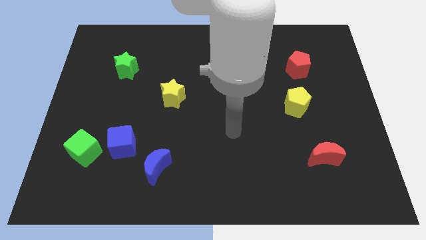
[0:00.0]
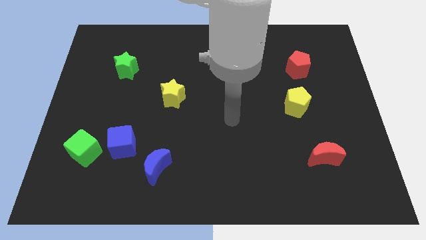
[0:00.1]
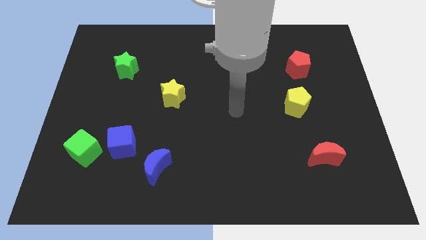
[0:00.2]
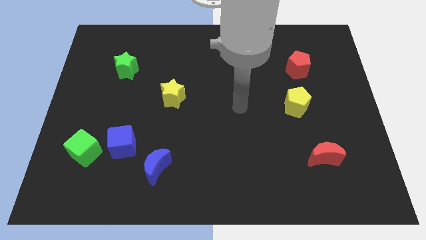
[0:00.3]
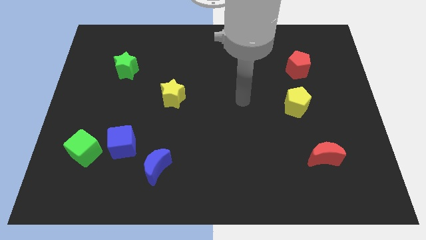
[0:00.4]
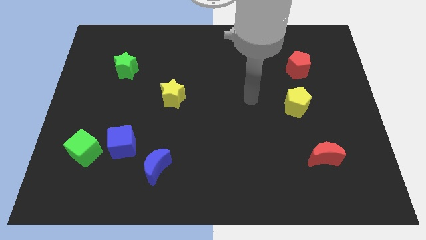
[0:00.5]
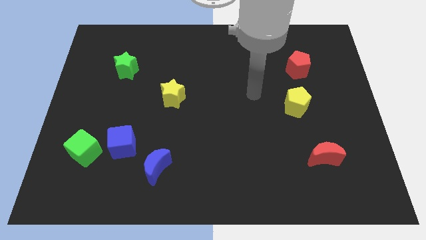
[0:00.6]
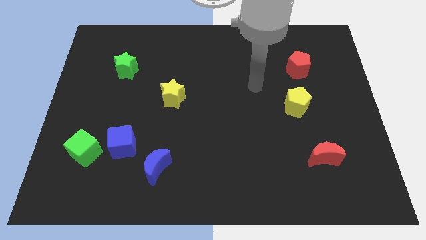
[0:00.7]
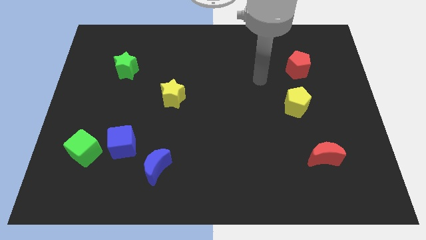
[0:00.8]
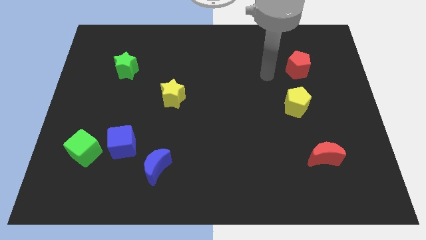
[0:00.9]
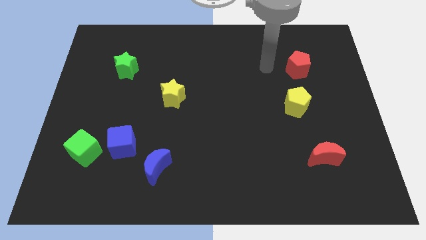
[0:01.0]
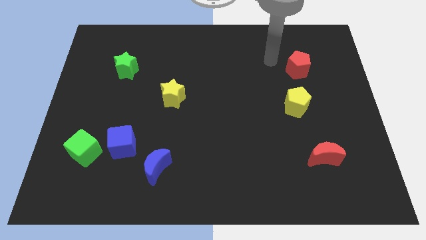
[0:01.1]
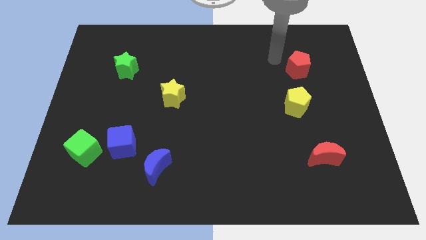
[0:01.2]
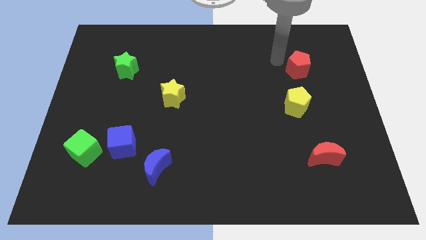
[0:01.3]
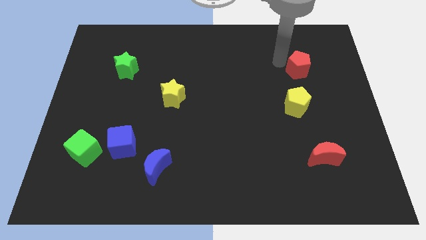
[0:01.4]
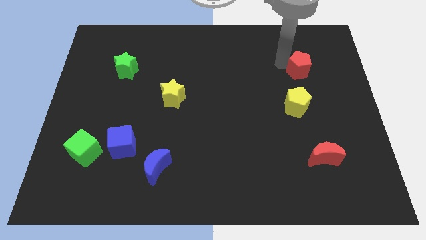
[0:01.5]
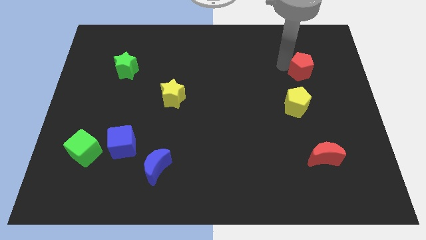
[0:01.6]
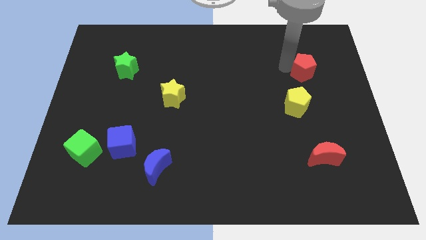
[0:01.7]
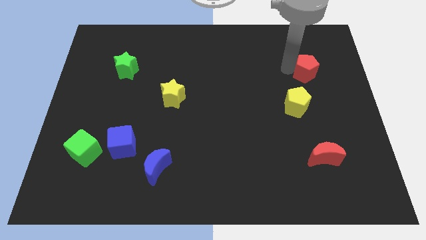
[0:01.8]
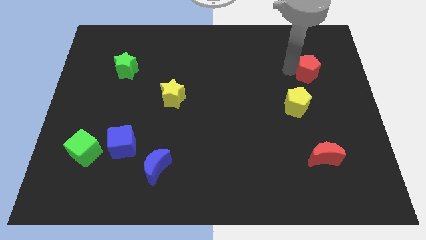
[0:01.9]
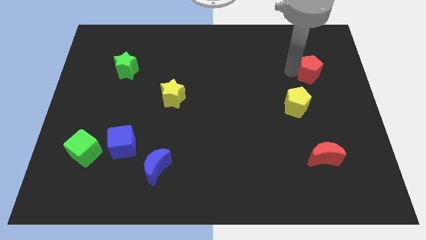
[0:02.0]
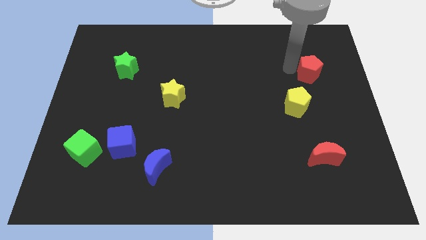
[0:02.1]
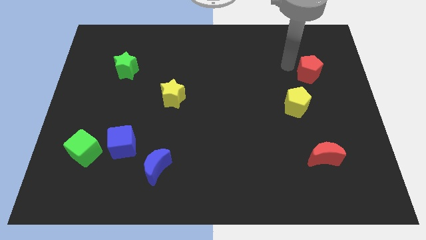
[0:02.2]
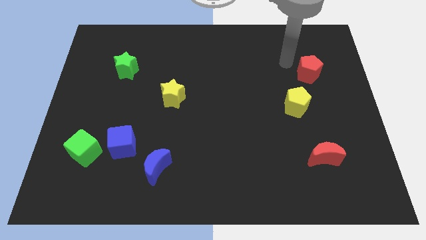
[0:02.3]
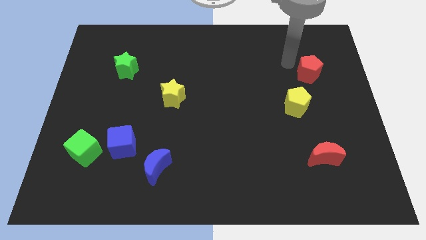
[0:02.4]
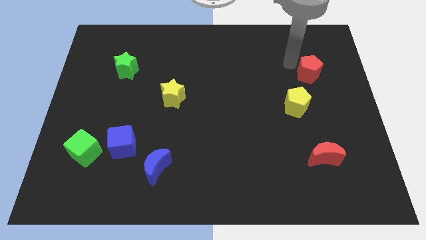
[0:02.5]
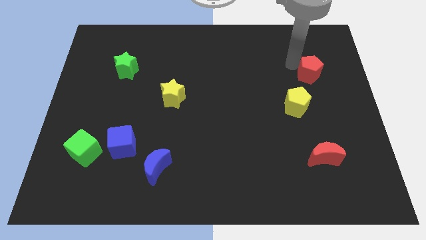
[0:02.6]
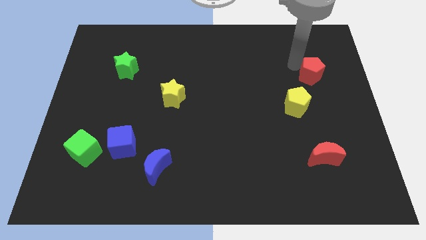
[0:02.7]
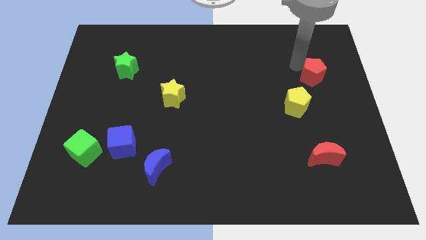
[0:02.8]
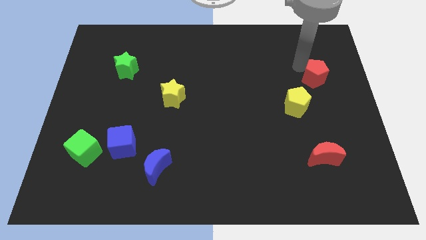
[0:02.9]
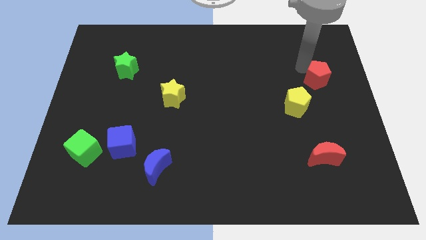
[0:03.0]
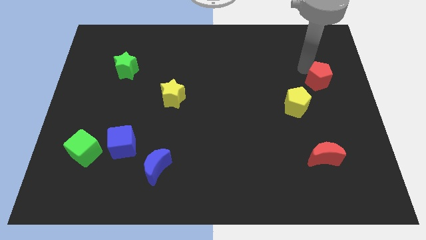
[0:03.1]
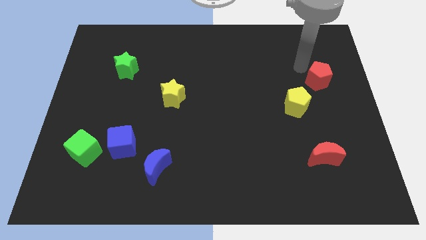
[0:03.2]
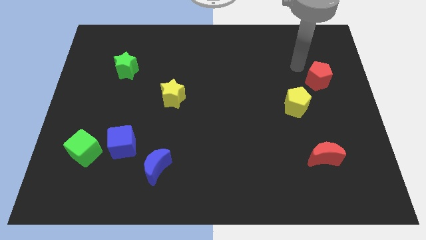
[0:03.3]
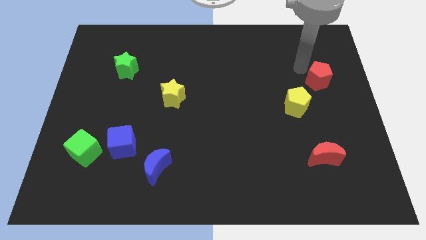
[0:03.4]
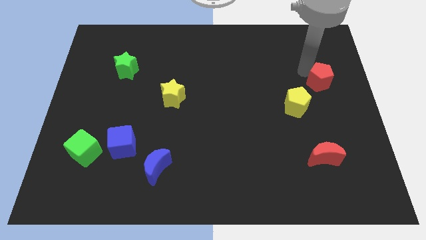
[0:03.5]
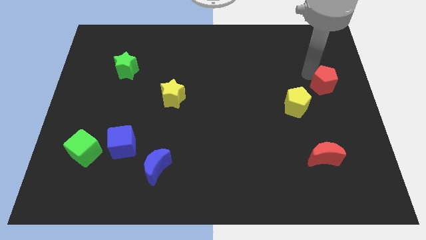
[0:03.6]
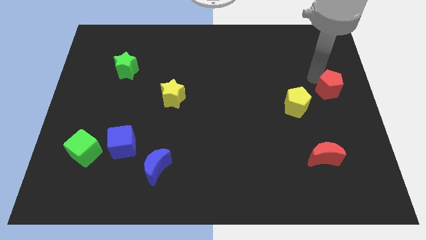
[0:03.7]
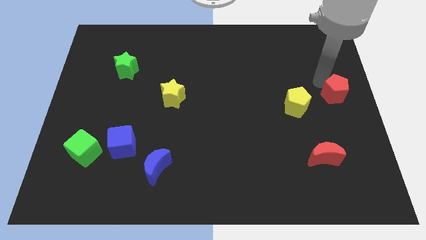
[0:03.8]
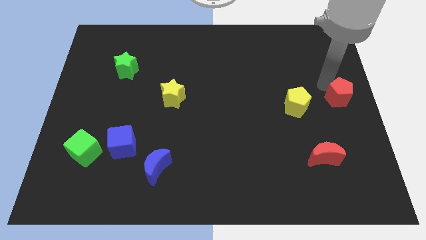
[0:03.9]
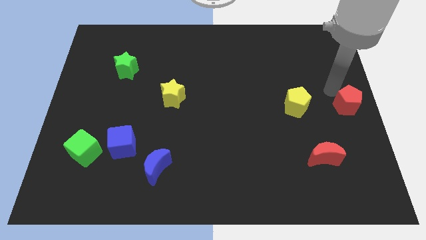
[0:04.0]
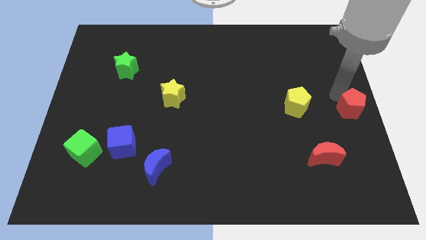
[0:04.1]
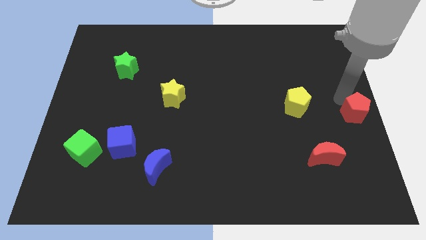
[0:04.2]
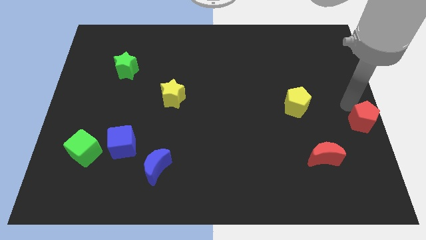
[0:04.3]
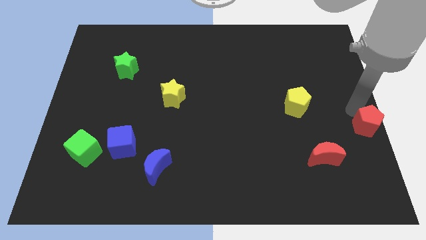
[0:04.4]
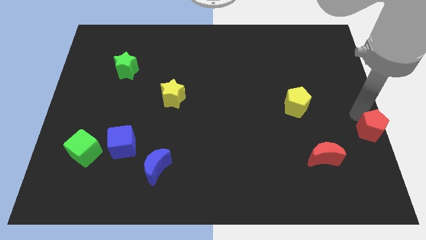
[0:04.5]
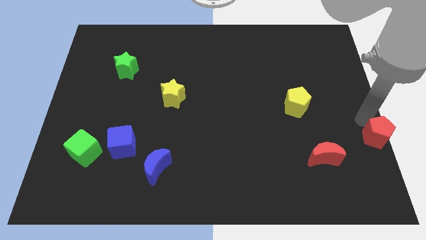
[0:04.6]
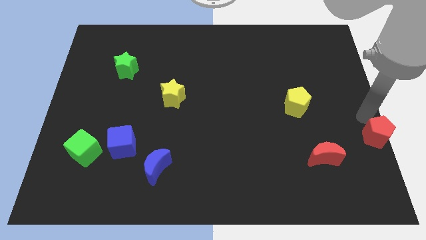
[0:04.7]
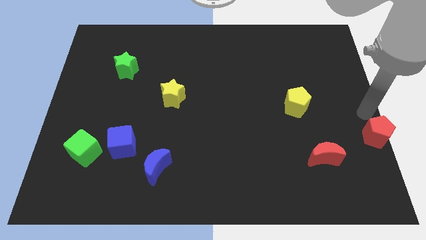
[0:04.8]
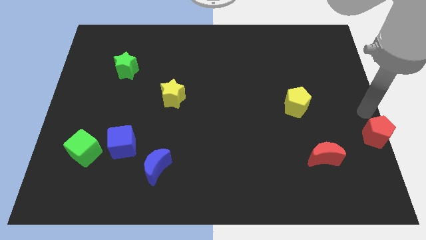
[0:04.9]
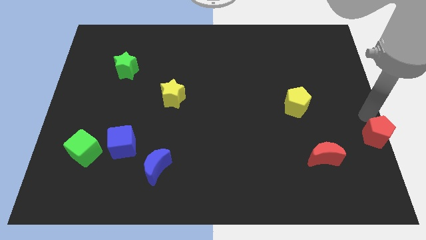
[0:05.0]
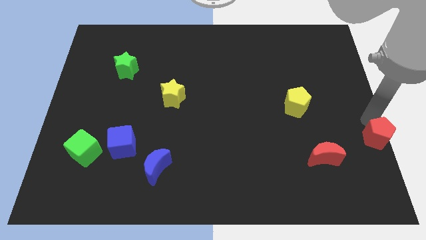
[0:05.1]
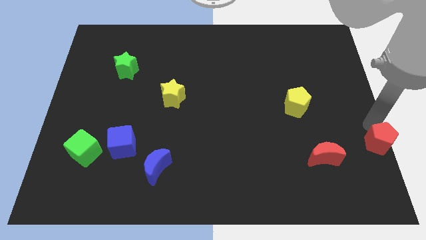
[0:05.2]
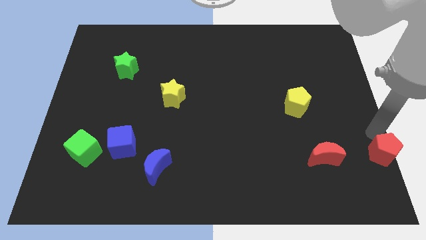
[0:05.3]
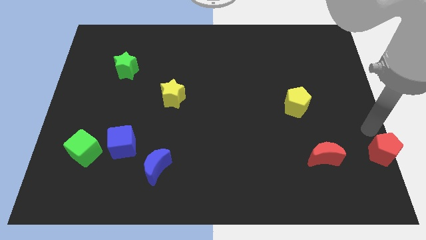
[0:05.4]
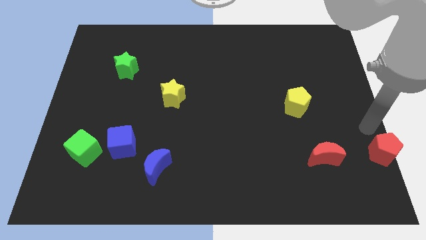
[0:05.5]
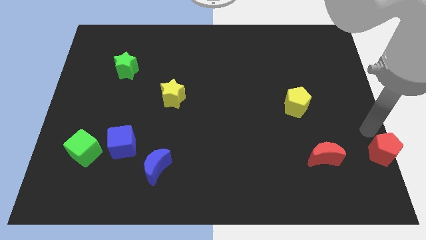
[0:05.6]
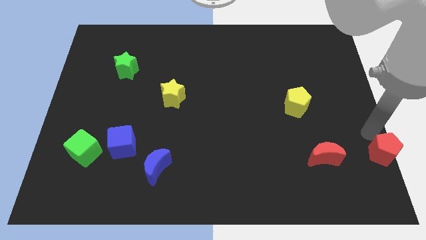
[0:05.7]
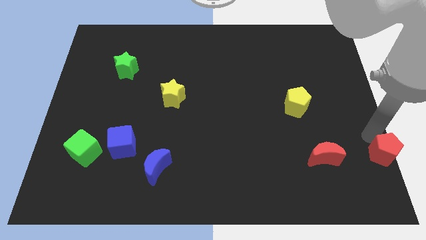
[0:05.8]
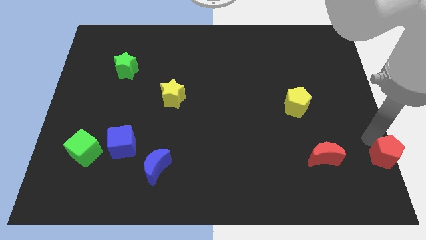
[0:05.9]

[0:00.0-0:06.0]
put the red pentagon to the lower right corner

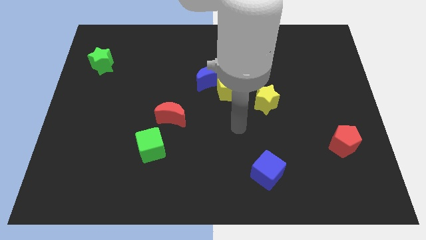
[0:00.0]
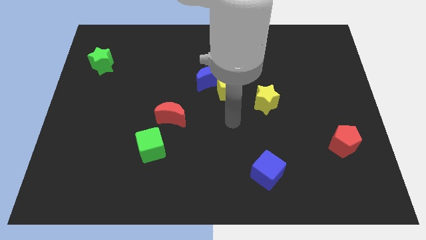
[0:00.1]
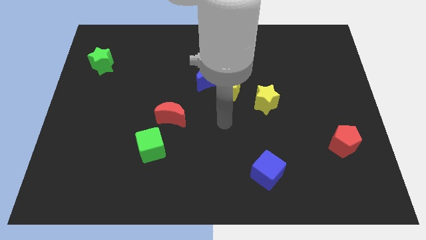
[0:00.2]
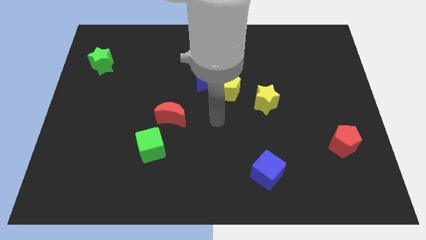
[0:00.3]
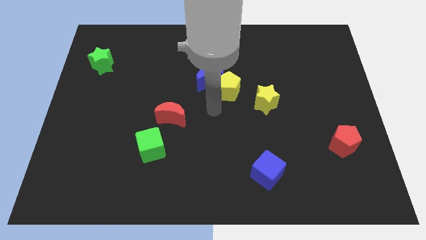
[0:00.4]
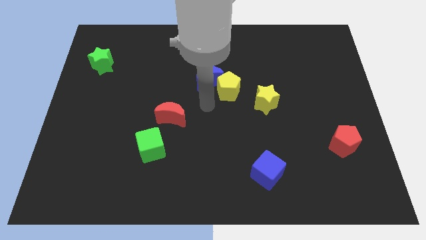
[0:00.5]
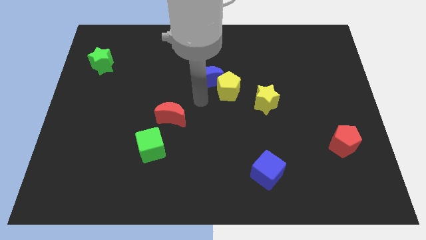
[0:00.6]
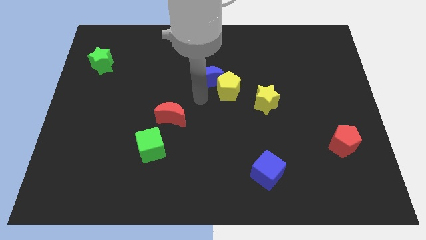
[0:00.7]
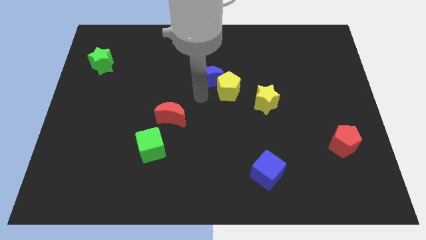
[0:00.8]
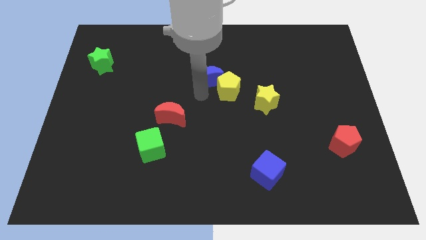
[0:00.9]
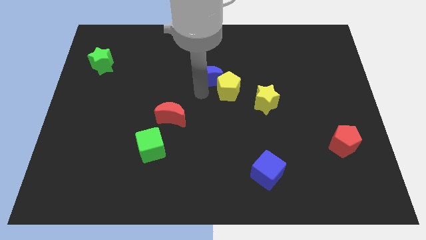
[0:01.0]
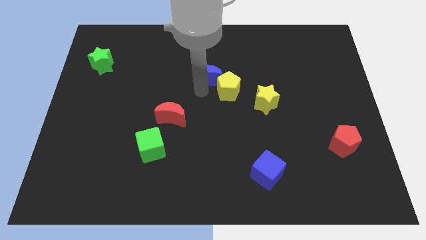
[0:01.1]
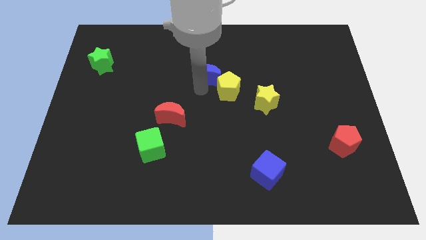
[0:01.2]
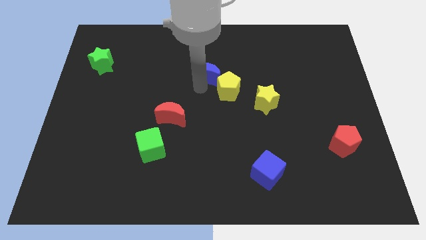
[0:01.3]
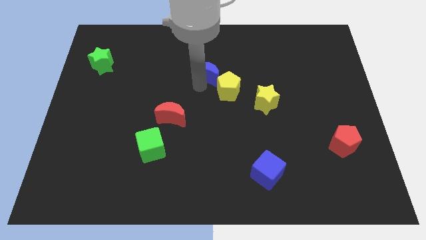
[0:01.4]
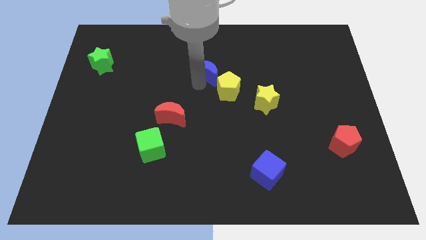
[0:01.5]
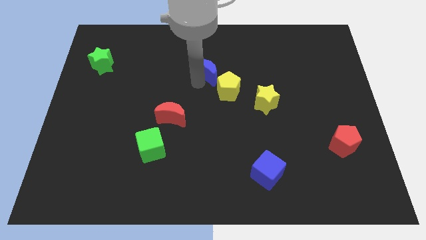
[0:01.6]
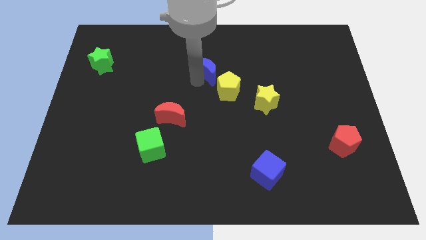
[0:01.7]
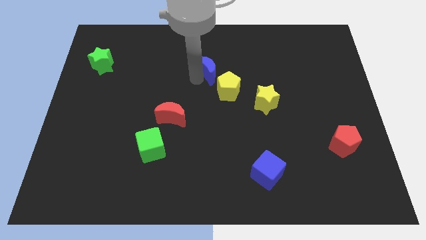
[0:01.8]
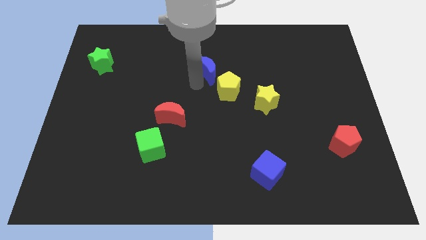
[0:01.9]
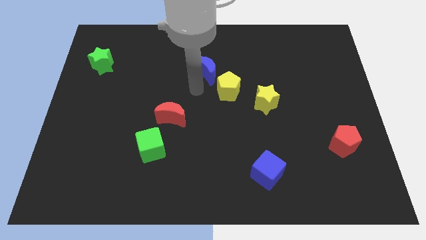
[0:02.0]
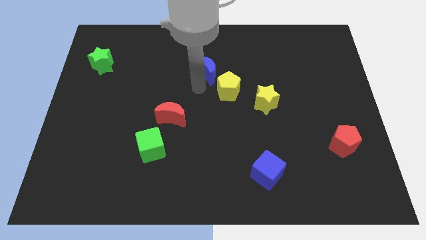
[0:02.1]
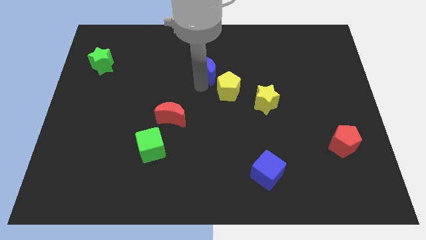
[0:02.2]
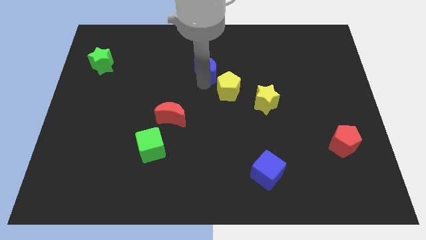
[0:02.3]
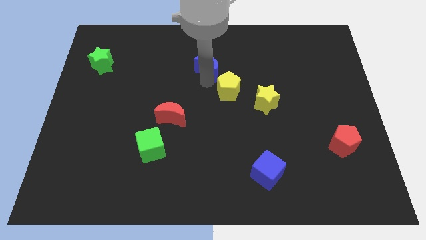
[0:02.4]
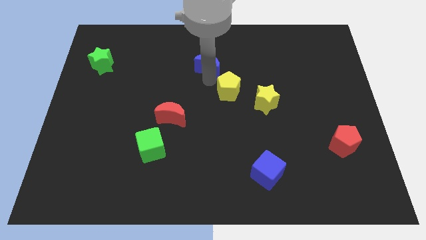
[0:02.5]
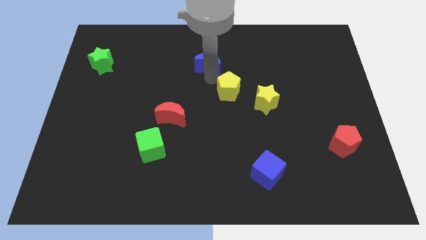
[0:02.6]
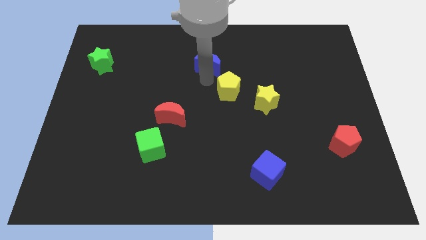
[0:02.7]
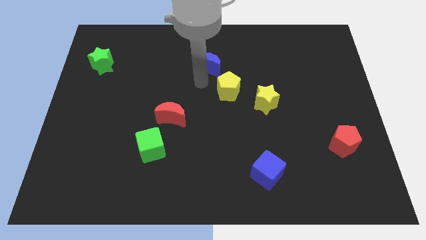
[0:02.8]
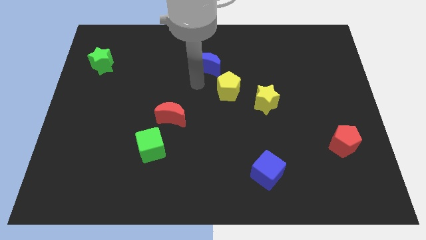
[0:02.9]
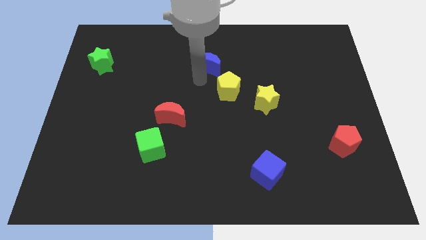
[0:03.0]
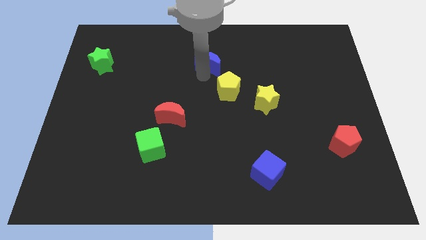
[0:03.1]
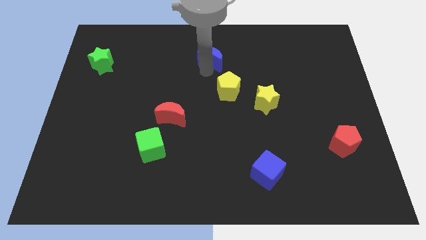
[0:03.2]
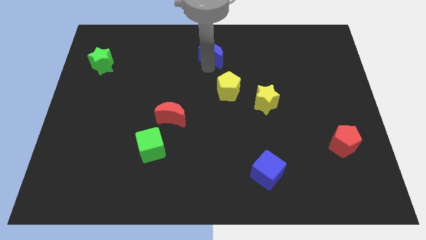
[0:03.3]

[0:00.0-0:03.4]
slide the blue moon to the top
